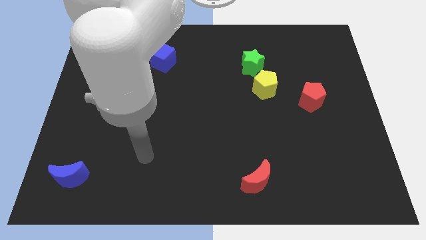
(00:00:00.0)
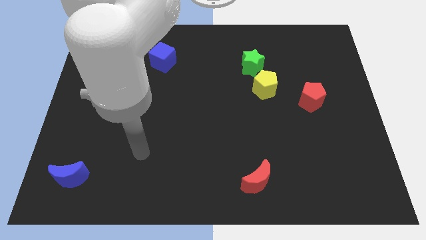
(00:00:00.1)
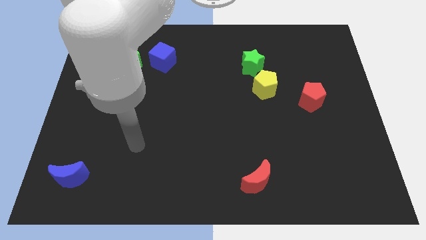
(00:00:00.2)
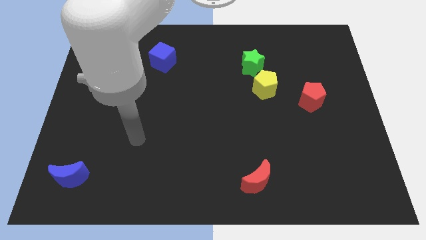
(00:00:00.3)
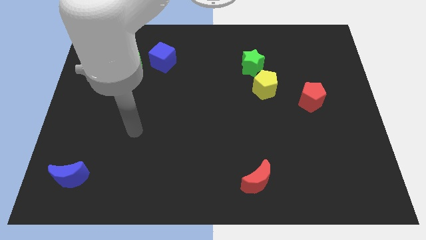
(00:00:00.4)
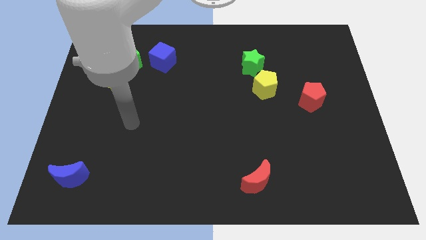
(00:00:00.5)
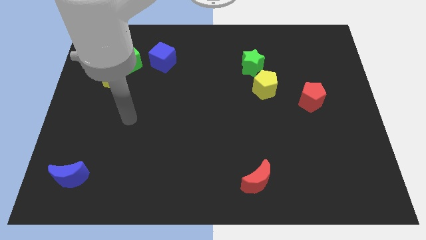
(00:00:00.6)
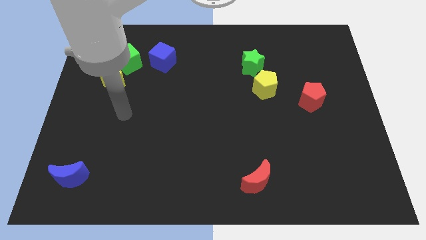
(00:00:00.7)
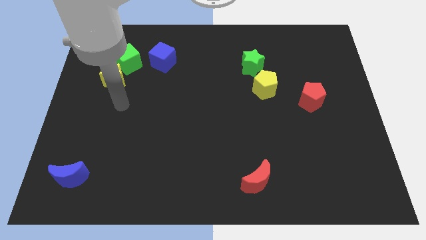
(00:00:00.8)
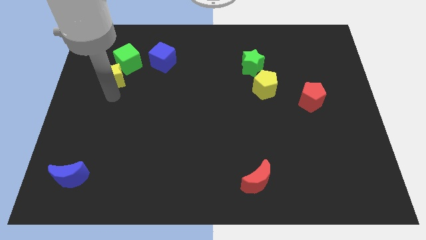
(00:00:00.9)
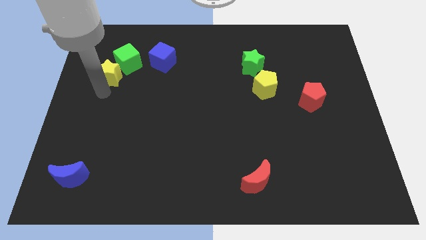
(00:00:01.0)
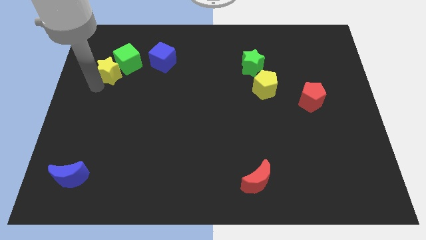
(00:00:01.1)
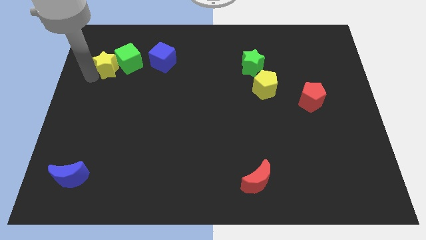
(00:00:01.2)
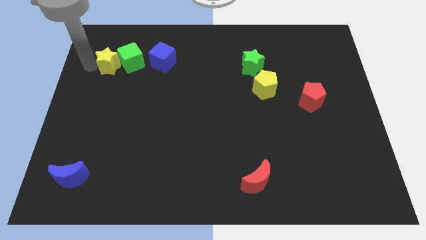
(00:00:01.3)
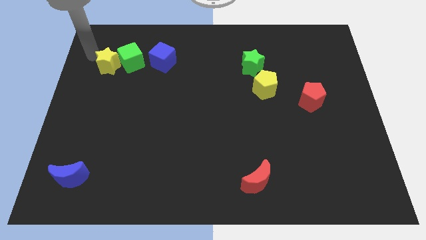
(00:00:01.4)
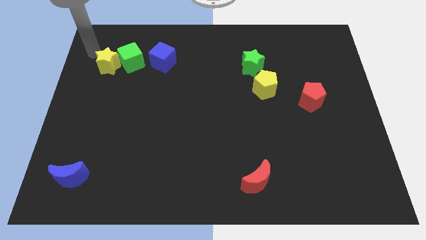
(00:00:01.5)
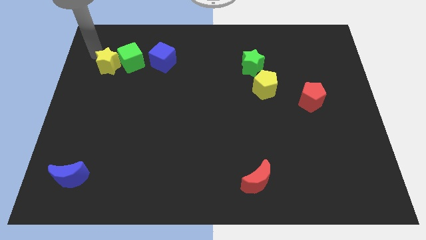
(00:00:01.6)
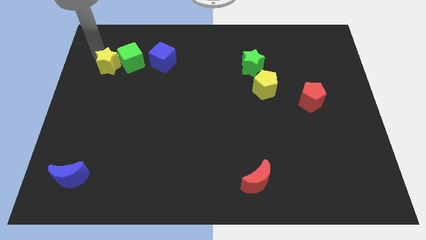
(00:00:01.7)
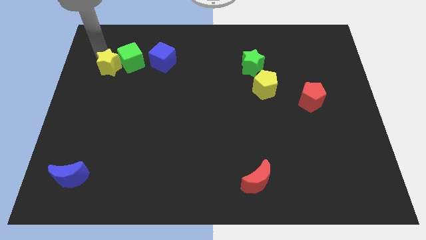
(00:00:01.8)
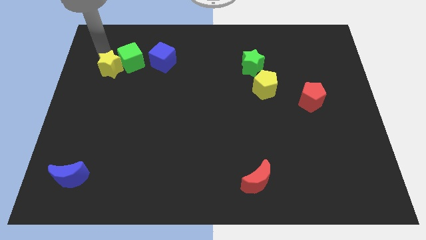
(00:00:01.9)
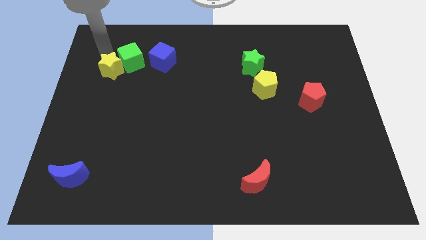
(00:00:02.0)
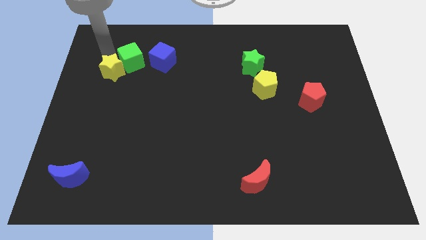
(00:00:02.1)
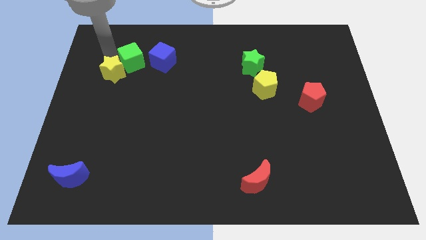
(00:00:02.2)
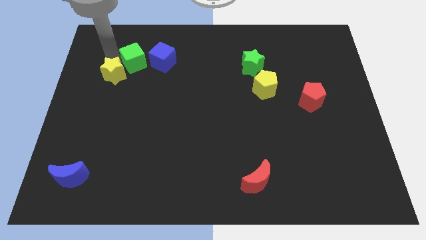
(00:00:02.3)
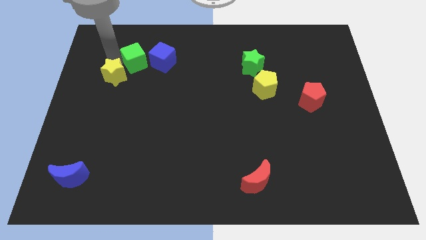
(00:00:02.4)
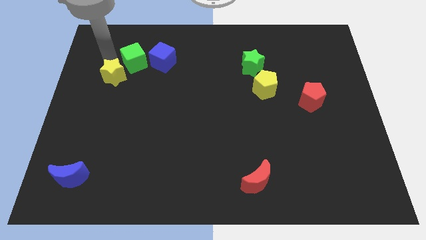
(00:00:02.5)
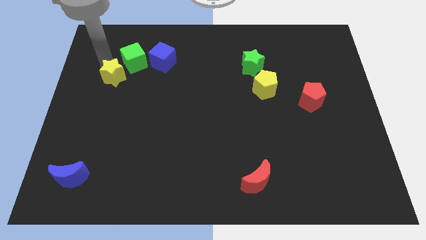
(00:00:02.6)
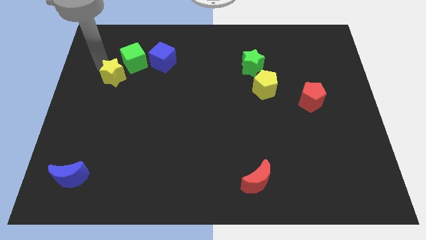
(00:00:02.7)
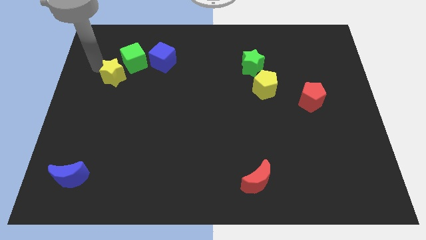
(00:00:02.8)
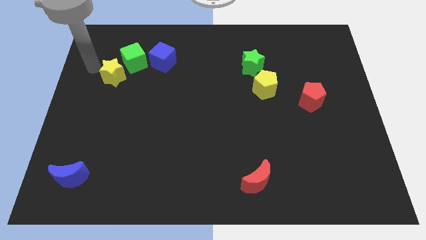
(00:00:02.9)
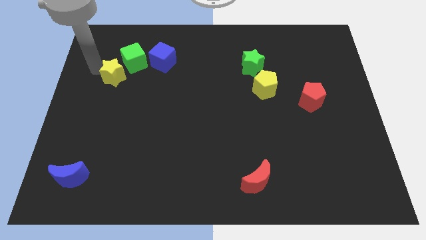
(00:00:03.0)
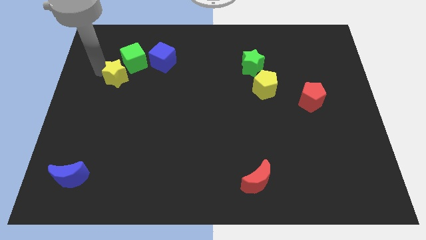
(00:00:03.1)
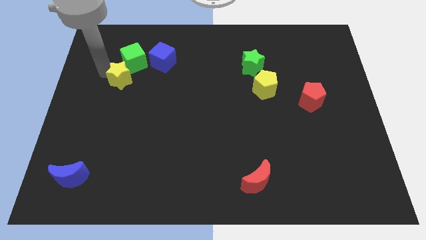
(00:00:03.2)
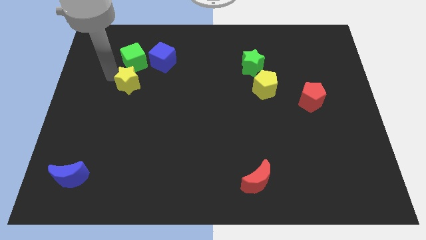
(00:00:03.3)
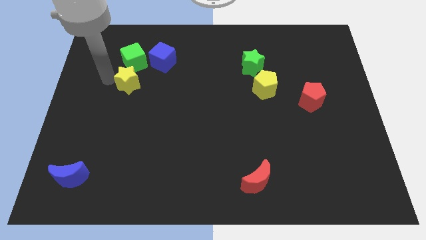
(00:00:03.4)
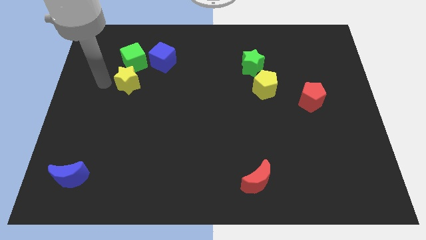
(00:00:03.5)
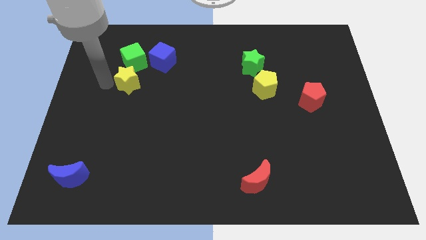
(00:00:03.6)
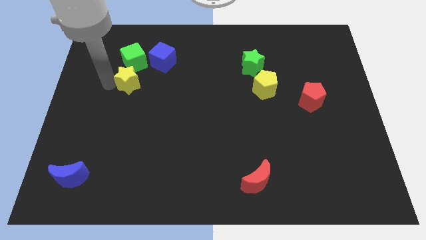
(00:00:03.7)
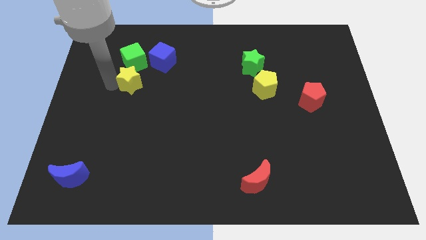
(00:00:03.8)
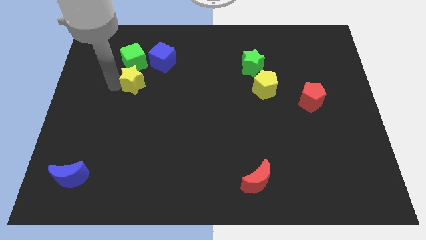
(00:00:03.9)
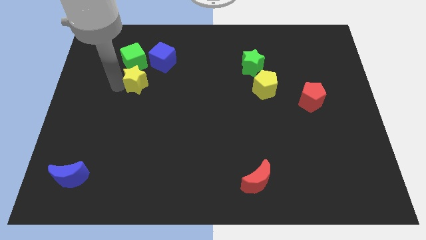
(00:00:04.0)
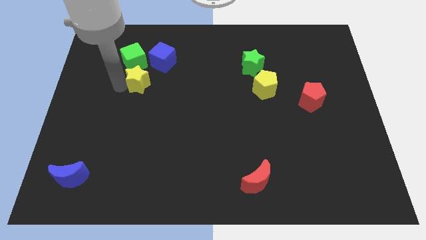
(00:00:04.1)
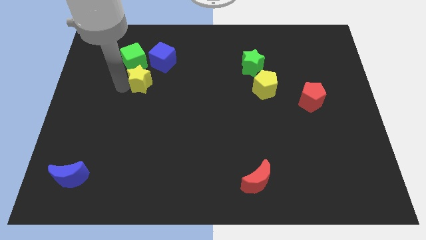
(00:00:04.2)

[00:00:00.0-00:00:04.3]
slightly push the yellow star to the right

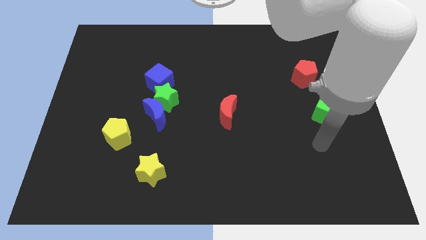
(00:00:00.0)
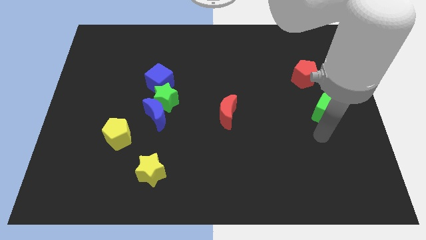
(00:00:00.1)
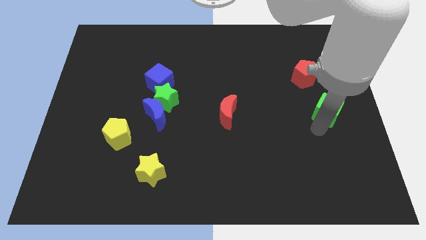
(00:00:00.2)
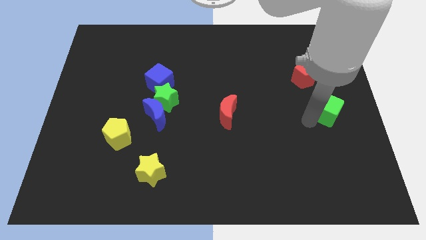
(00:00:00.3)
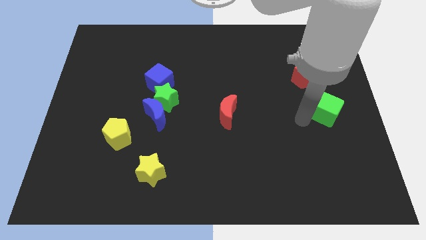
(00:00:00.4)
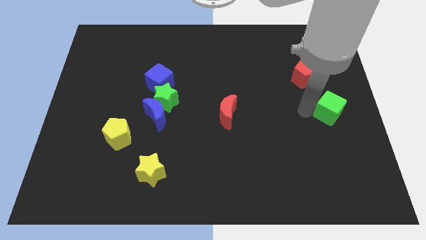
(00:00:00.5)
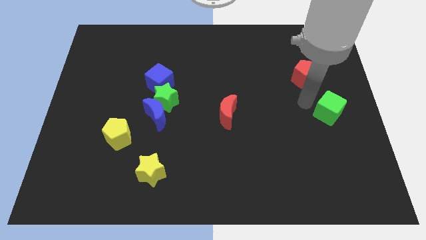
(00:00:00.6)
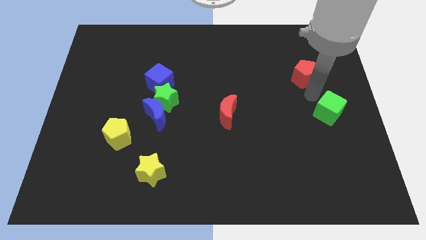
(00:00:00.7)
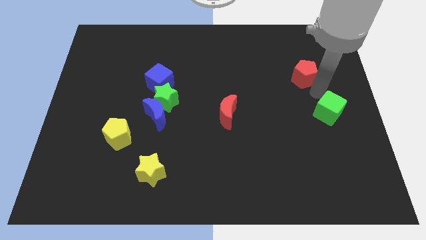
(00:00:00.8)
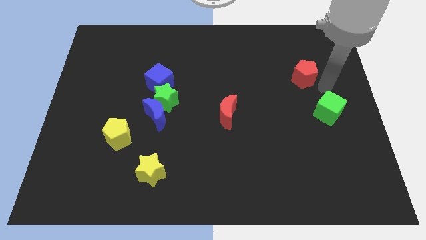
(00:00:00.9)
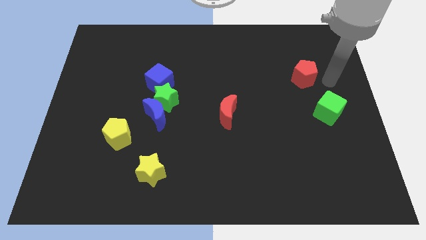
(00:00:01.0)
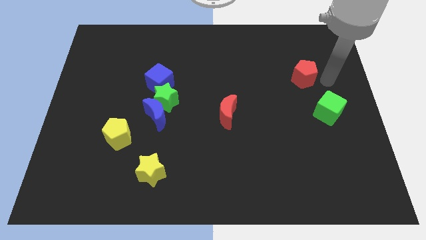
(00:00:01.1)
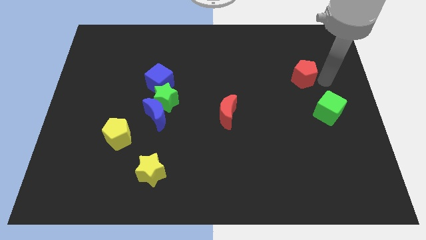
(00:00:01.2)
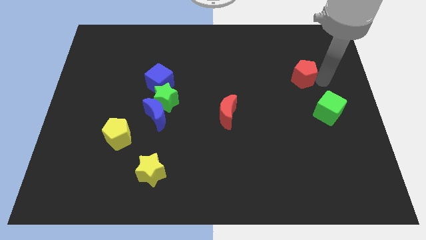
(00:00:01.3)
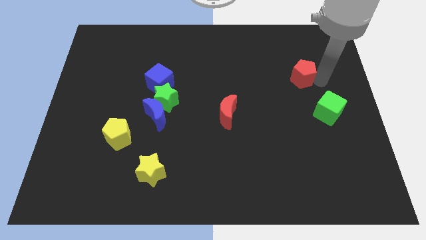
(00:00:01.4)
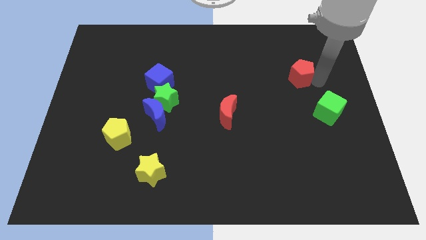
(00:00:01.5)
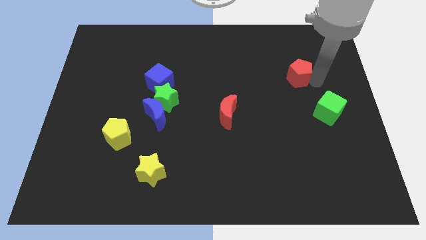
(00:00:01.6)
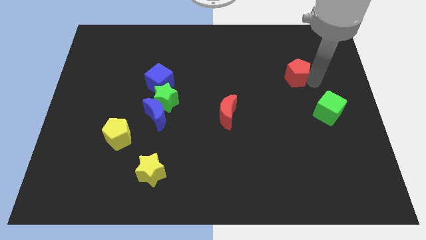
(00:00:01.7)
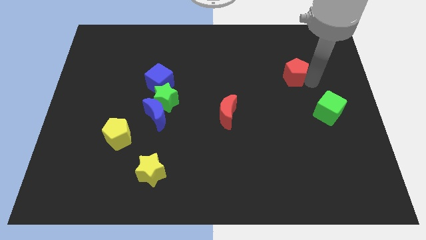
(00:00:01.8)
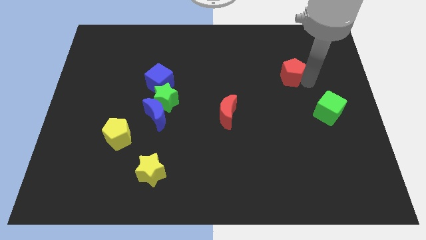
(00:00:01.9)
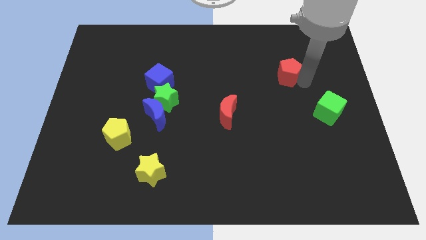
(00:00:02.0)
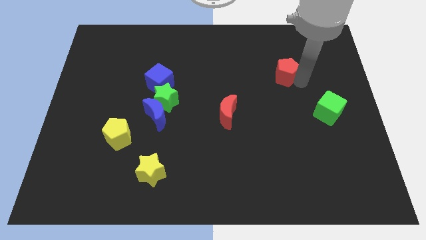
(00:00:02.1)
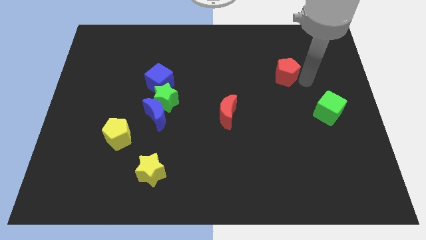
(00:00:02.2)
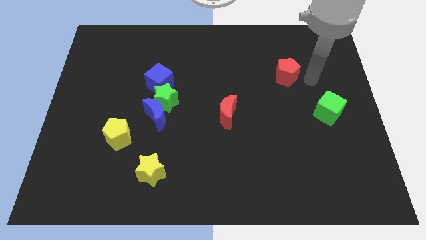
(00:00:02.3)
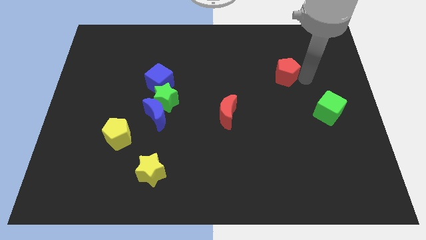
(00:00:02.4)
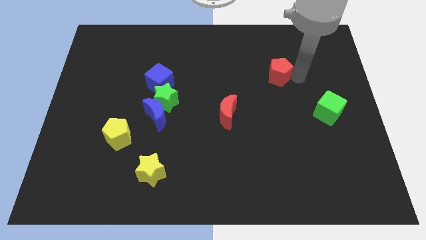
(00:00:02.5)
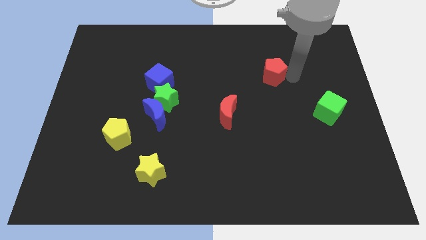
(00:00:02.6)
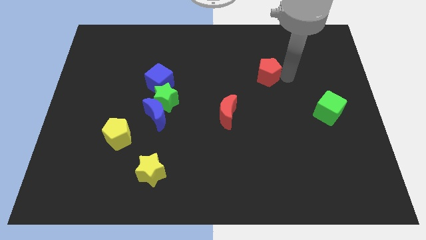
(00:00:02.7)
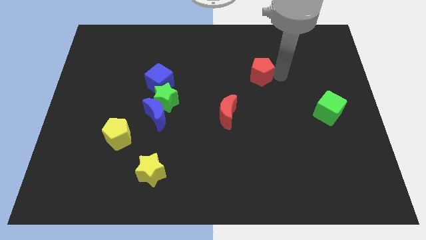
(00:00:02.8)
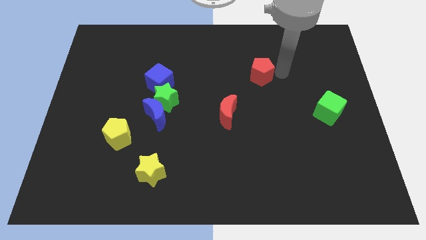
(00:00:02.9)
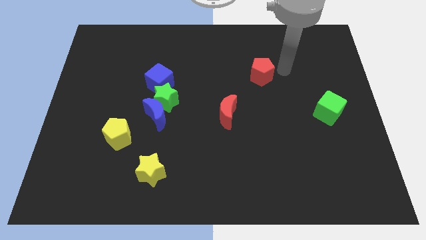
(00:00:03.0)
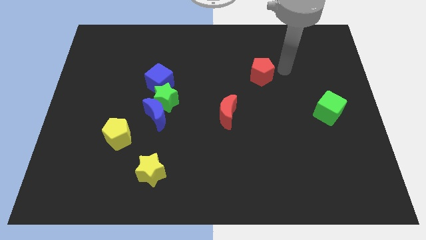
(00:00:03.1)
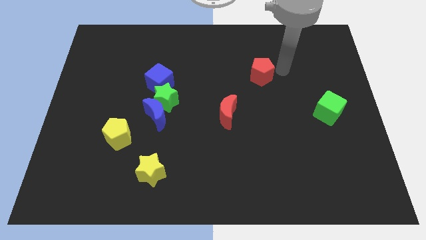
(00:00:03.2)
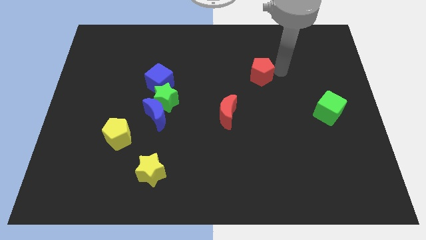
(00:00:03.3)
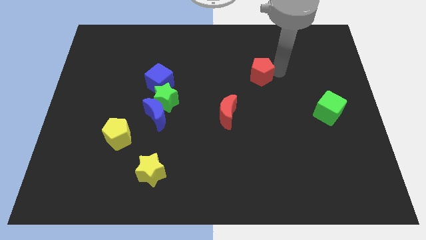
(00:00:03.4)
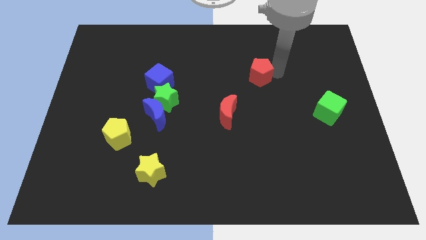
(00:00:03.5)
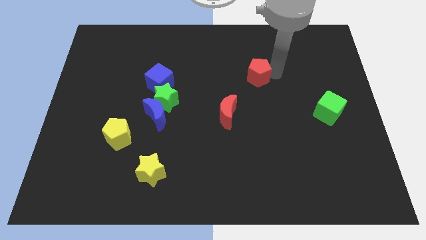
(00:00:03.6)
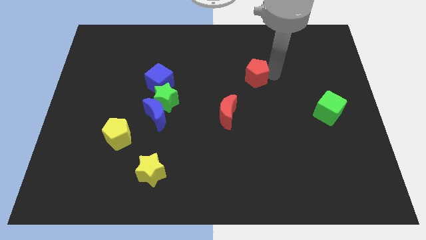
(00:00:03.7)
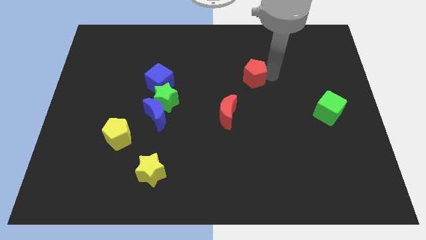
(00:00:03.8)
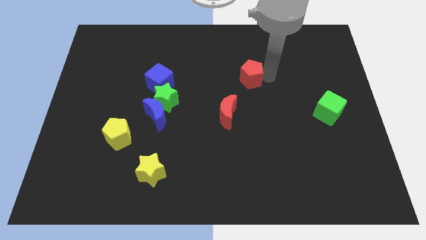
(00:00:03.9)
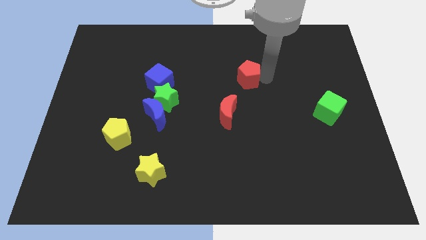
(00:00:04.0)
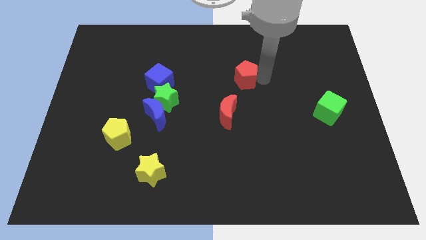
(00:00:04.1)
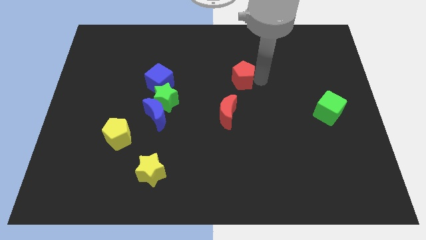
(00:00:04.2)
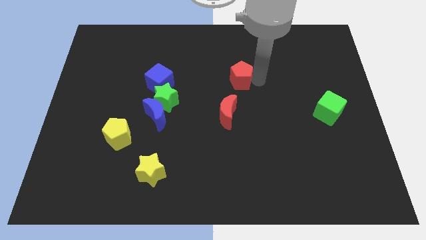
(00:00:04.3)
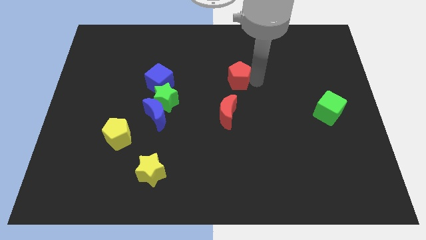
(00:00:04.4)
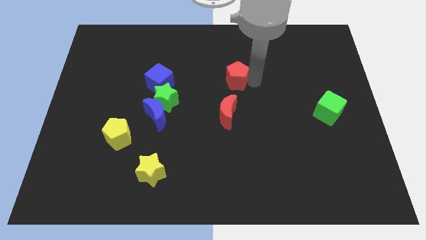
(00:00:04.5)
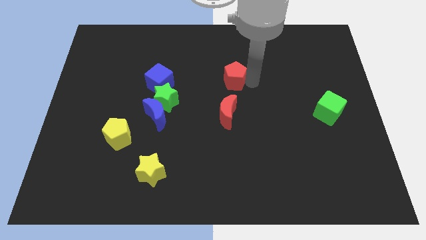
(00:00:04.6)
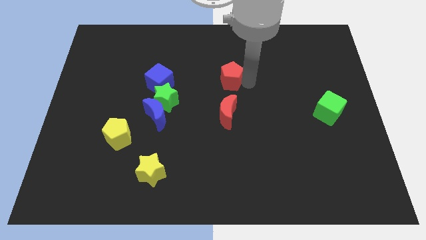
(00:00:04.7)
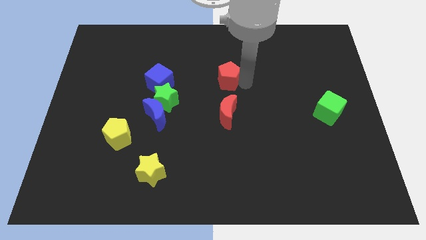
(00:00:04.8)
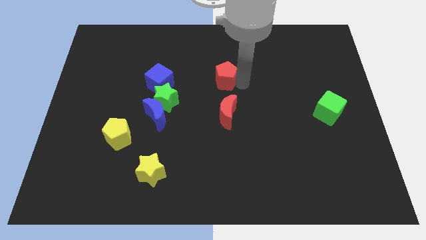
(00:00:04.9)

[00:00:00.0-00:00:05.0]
slide the red pentagon left
